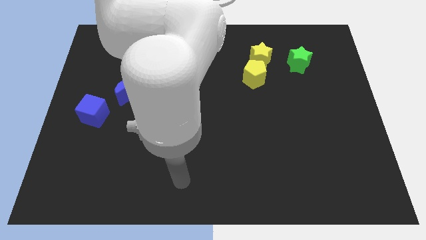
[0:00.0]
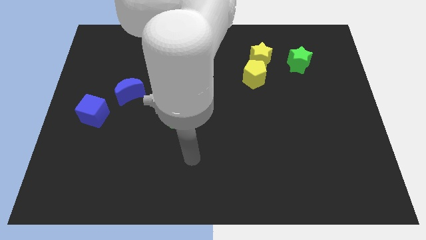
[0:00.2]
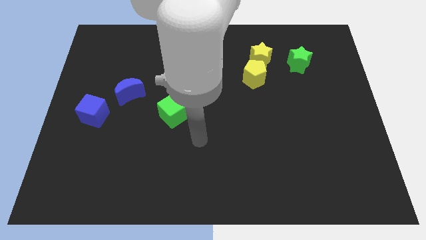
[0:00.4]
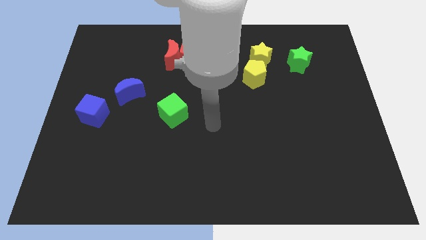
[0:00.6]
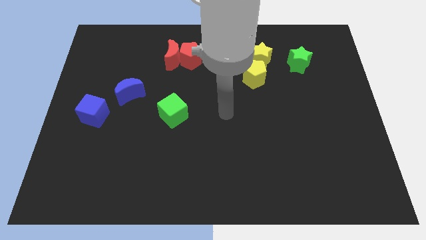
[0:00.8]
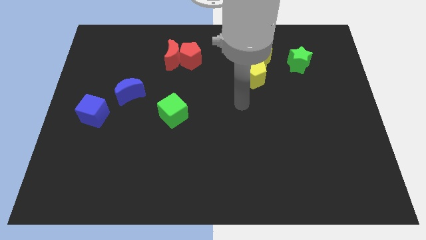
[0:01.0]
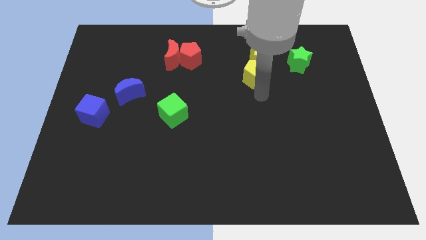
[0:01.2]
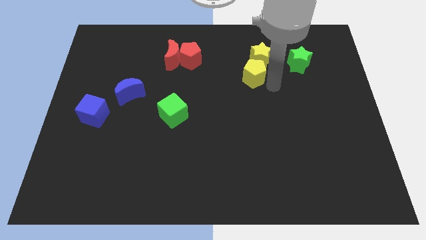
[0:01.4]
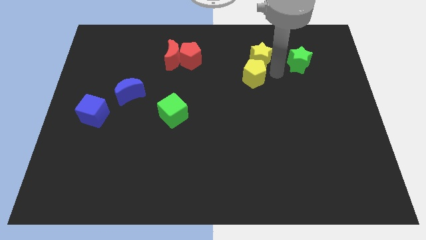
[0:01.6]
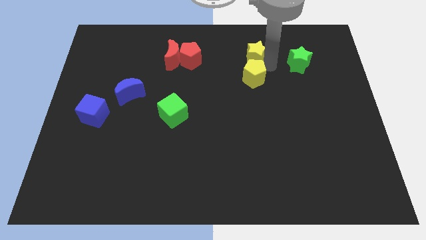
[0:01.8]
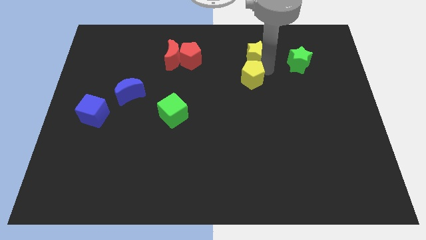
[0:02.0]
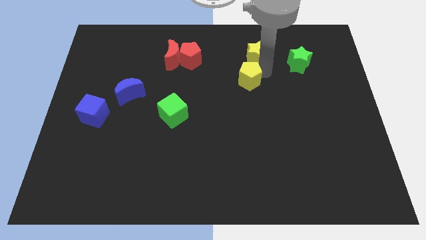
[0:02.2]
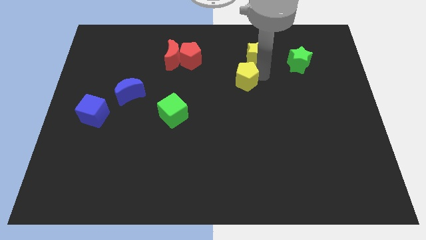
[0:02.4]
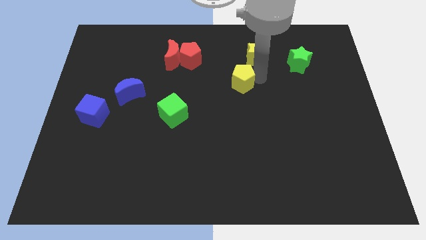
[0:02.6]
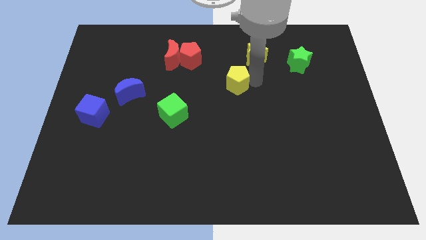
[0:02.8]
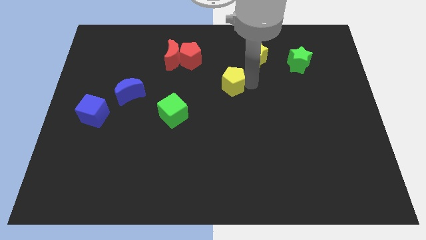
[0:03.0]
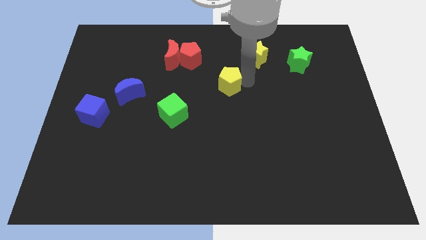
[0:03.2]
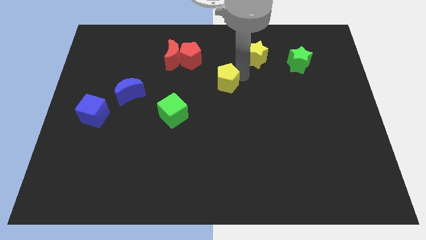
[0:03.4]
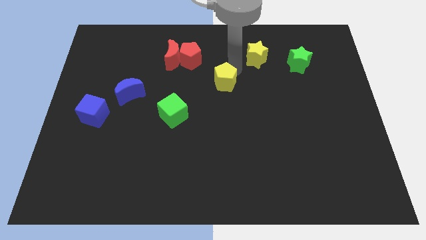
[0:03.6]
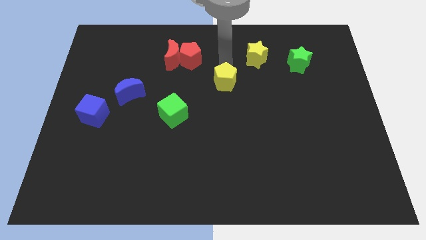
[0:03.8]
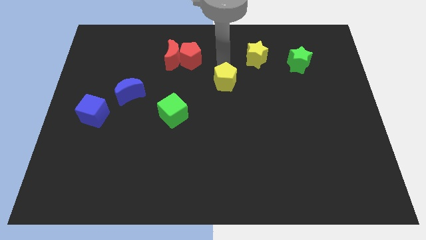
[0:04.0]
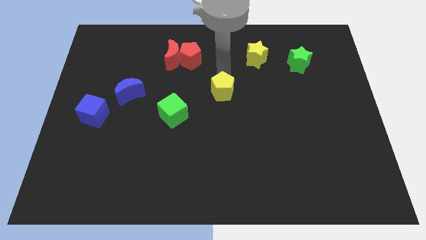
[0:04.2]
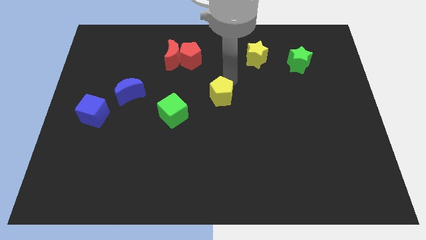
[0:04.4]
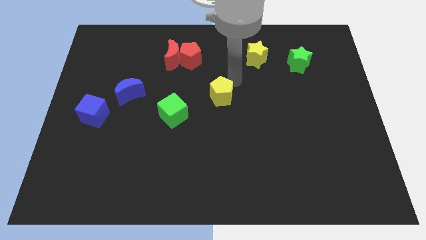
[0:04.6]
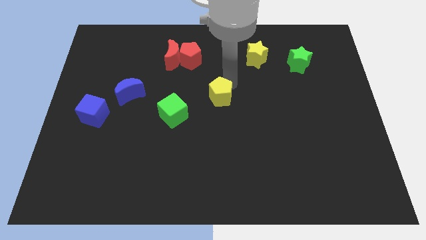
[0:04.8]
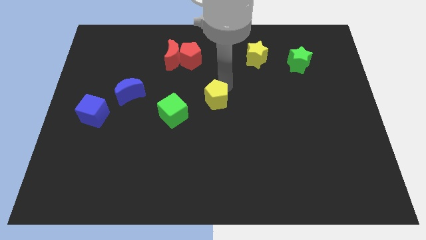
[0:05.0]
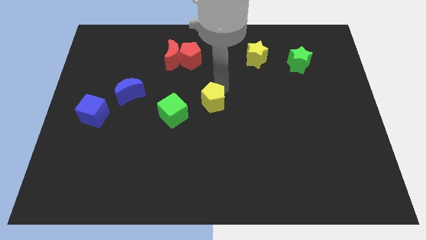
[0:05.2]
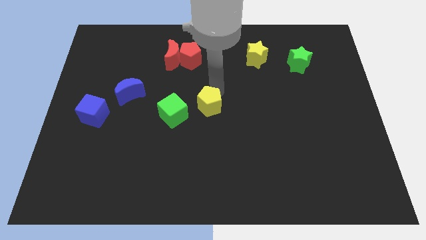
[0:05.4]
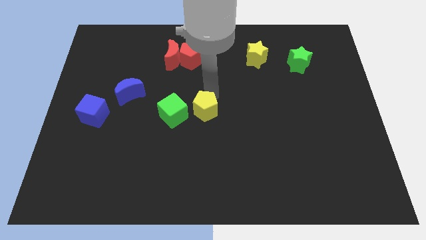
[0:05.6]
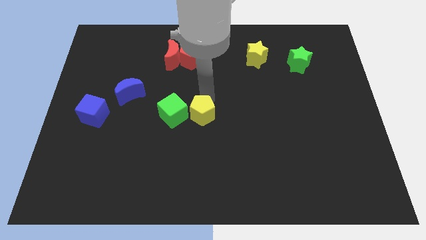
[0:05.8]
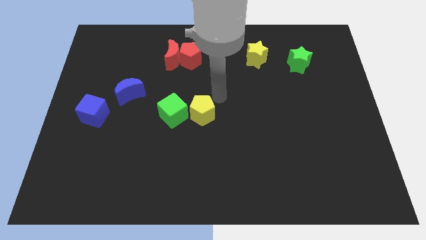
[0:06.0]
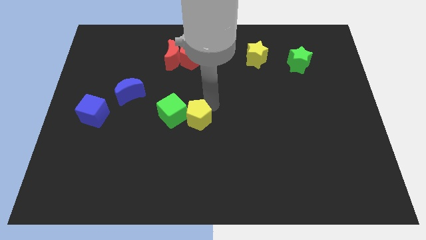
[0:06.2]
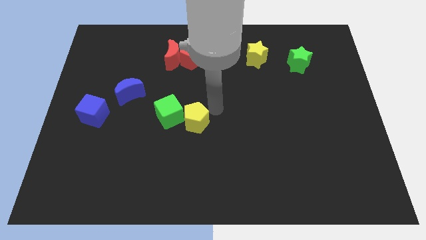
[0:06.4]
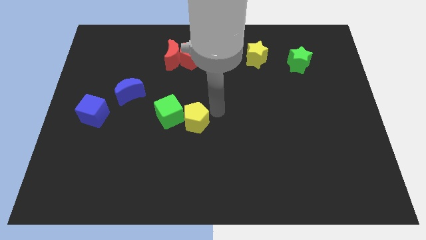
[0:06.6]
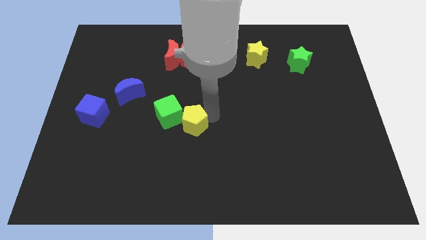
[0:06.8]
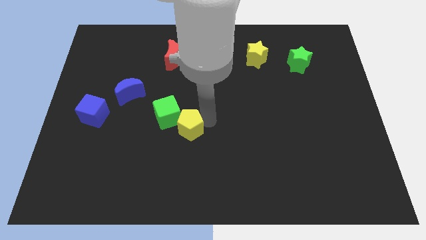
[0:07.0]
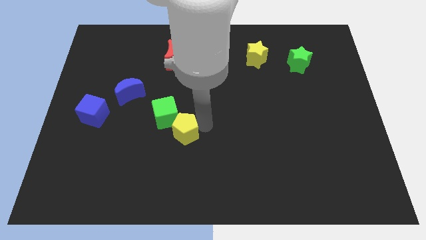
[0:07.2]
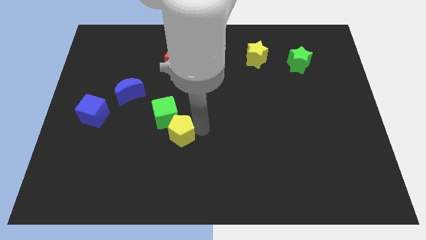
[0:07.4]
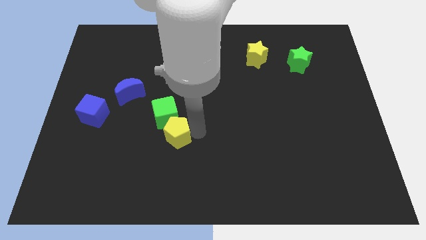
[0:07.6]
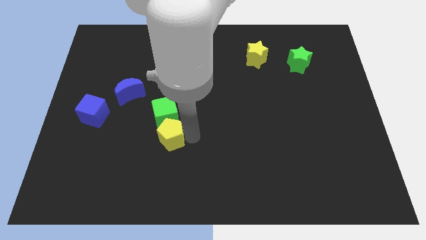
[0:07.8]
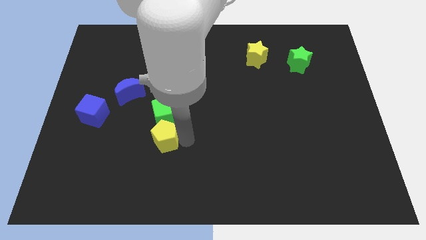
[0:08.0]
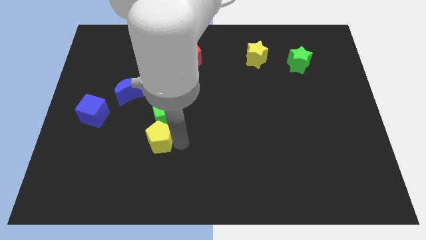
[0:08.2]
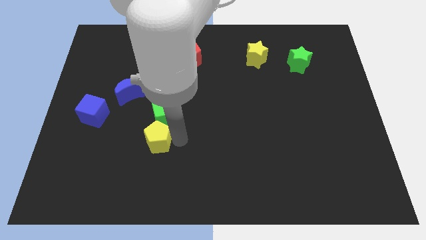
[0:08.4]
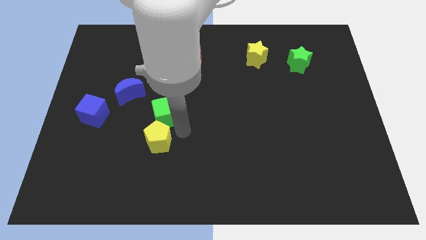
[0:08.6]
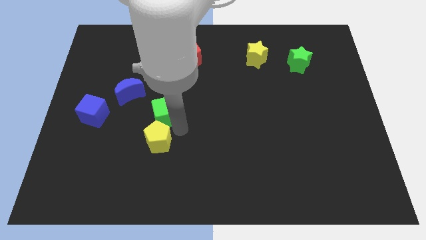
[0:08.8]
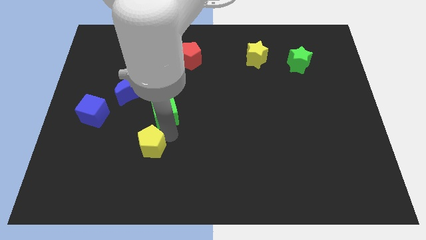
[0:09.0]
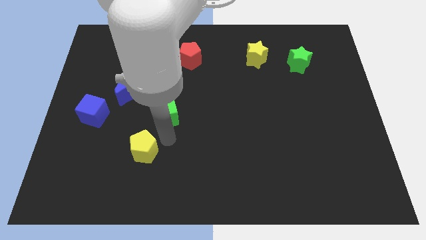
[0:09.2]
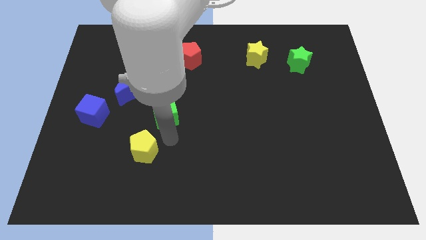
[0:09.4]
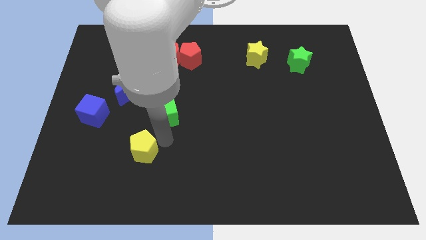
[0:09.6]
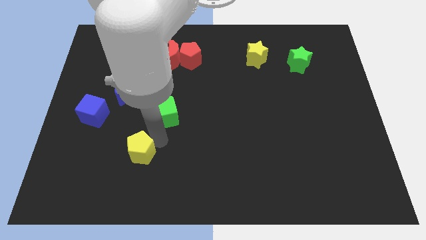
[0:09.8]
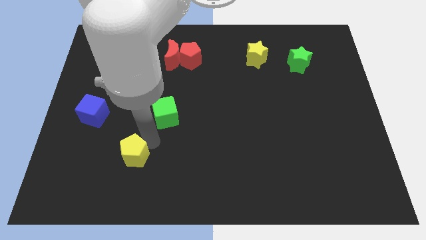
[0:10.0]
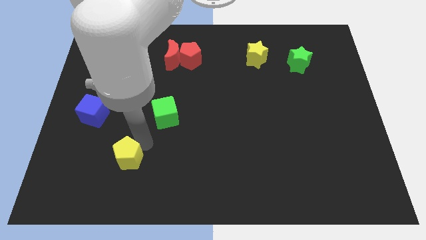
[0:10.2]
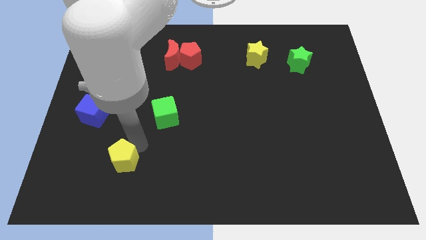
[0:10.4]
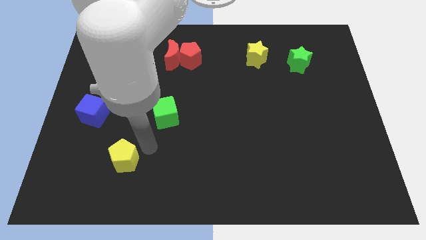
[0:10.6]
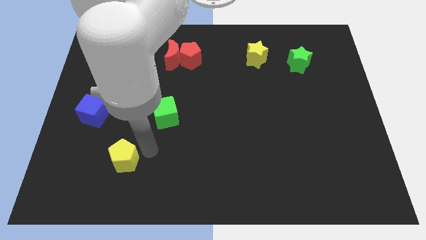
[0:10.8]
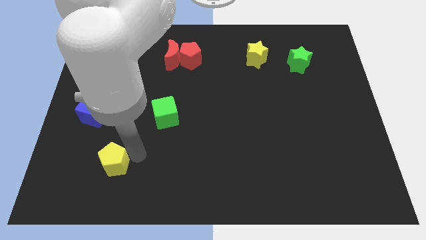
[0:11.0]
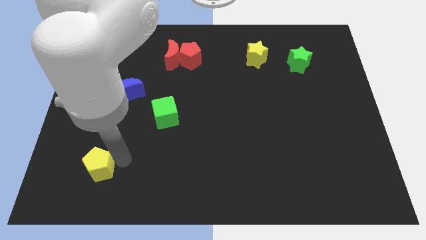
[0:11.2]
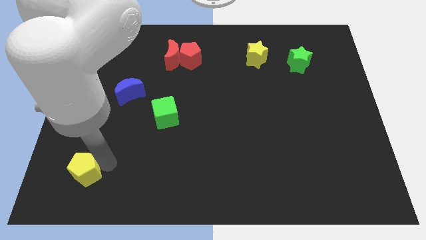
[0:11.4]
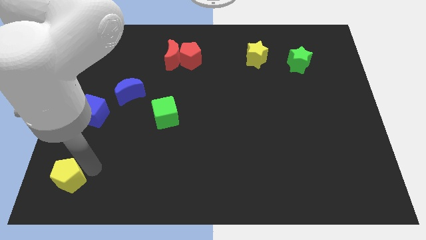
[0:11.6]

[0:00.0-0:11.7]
move the yellow pentagon to the bottom left corner
